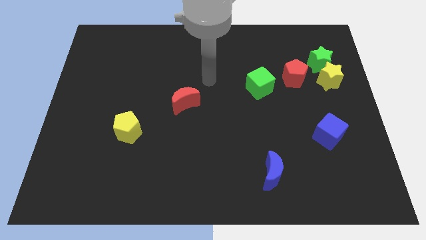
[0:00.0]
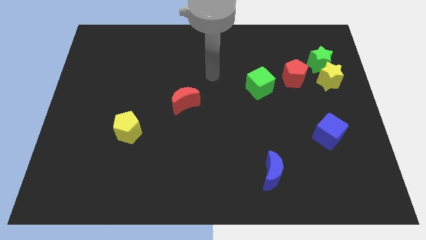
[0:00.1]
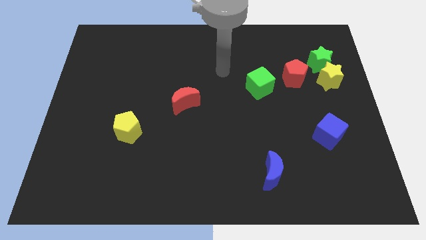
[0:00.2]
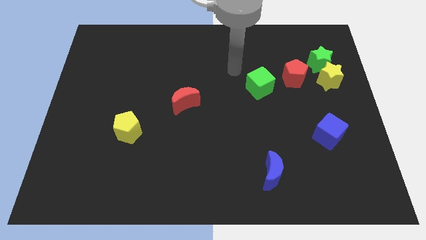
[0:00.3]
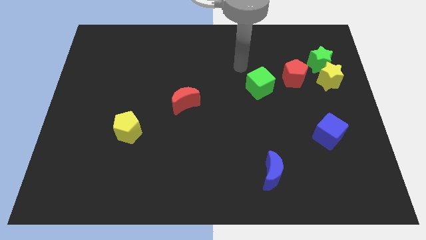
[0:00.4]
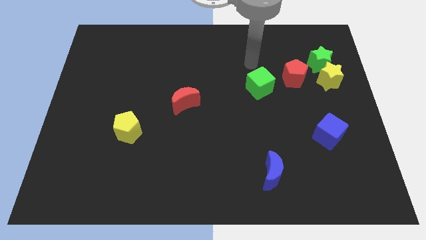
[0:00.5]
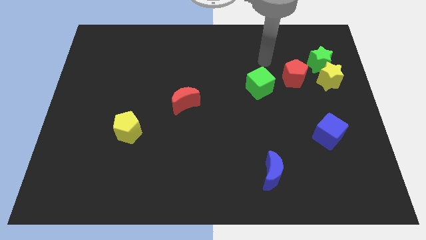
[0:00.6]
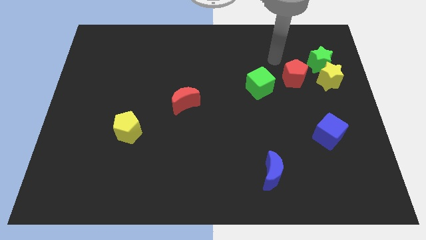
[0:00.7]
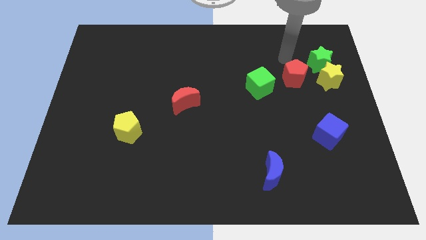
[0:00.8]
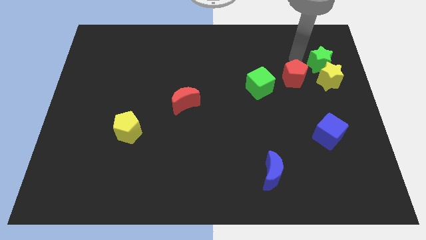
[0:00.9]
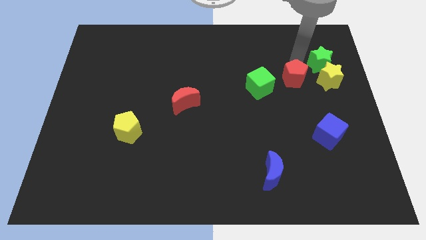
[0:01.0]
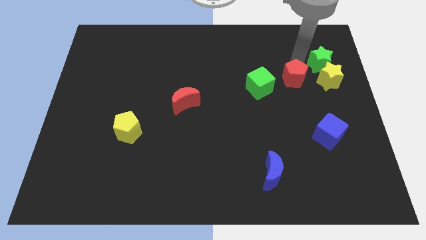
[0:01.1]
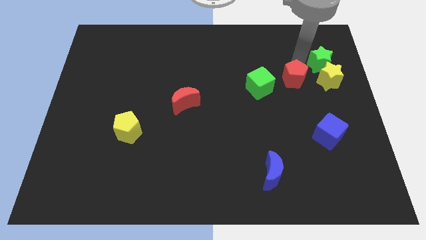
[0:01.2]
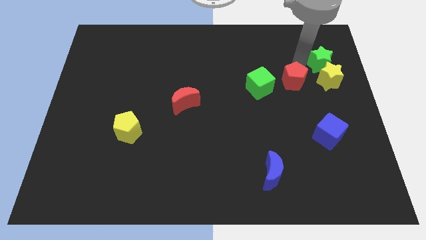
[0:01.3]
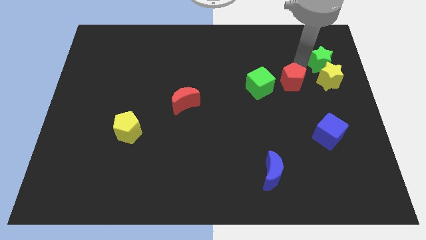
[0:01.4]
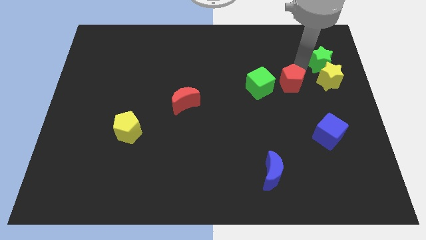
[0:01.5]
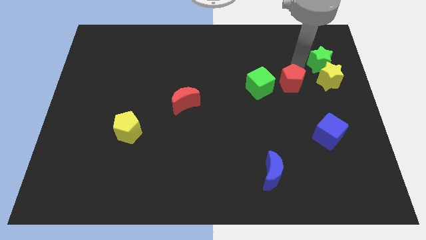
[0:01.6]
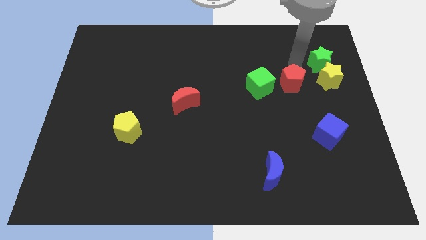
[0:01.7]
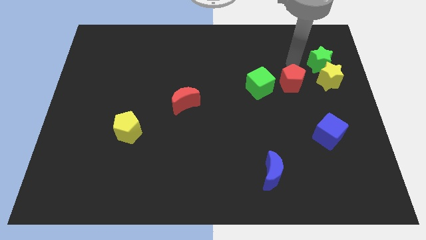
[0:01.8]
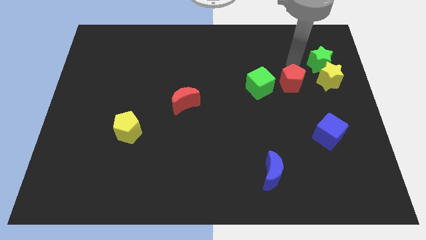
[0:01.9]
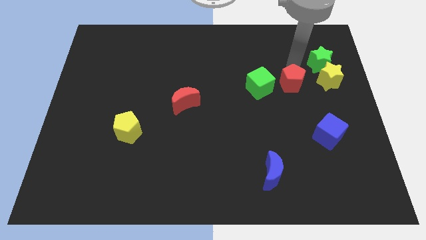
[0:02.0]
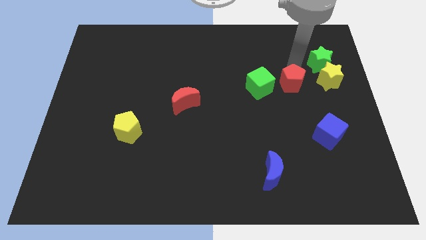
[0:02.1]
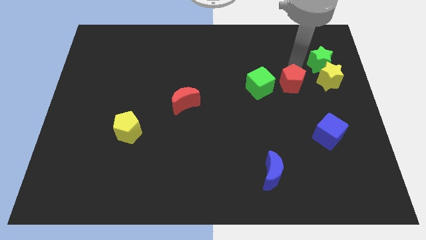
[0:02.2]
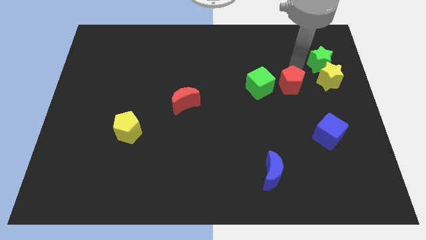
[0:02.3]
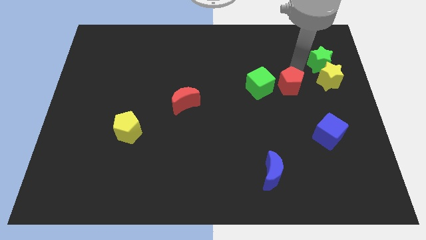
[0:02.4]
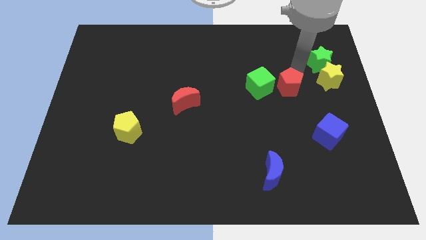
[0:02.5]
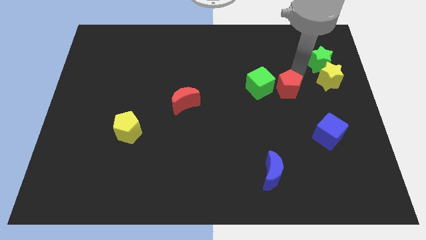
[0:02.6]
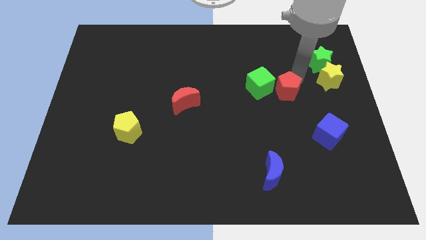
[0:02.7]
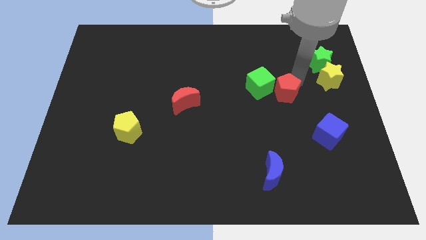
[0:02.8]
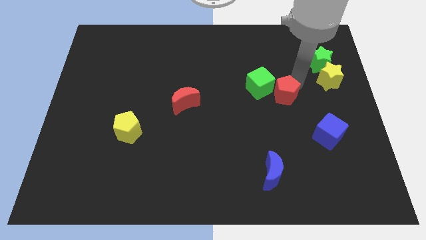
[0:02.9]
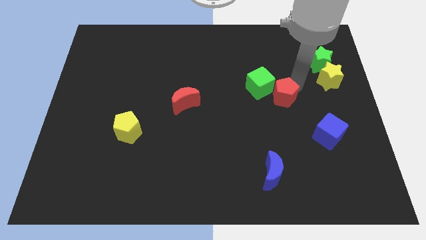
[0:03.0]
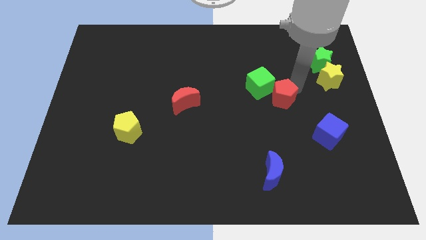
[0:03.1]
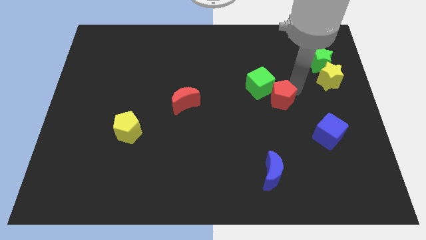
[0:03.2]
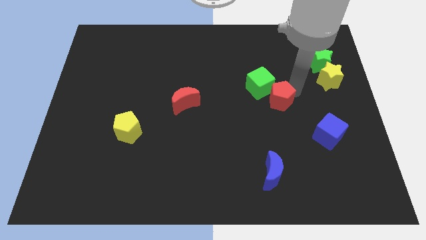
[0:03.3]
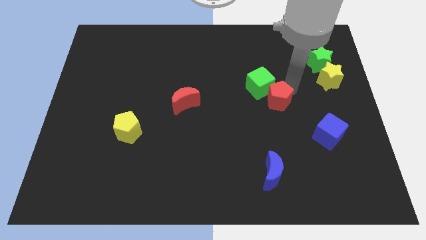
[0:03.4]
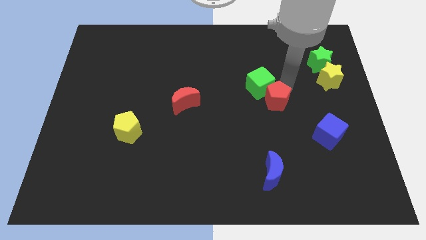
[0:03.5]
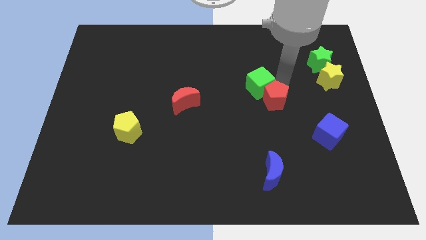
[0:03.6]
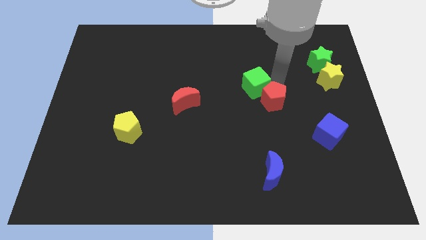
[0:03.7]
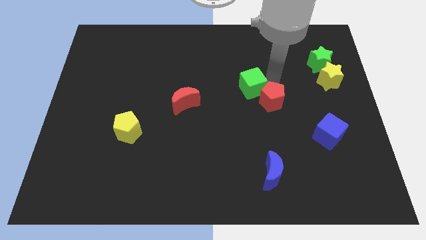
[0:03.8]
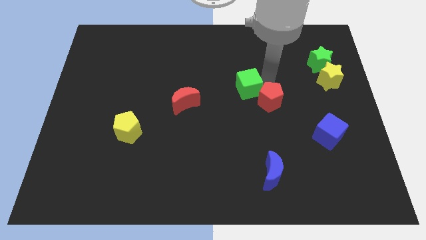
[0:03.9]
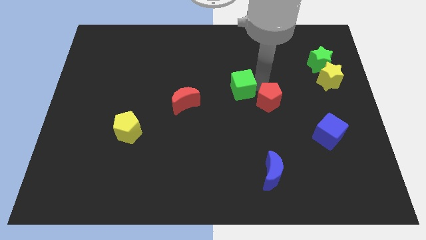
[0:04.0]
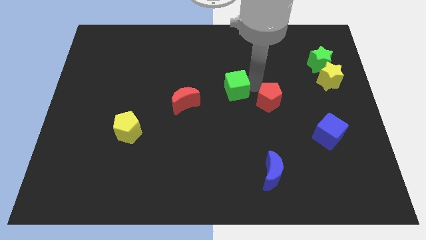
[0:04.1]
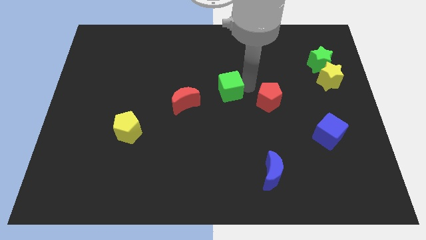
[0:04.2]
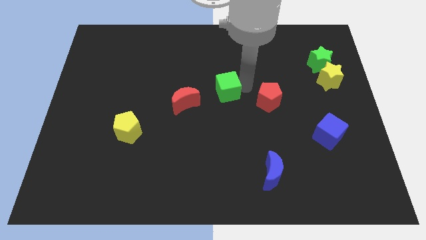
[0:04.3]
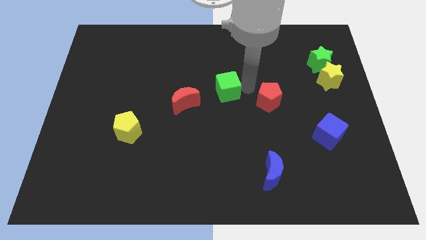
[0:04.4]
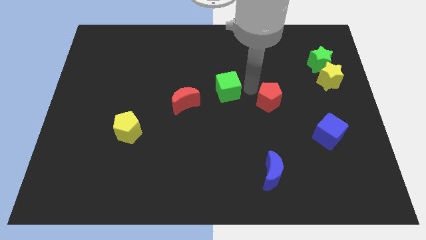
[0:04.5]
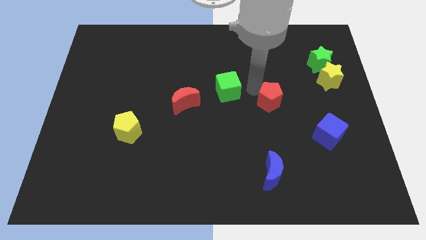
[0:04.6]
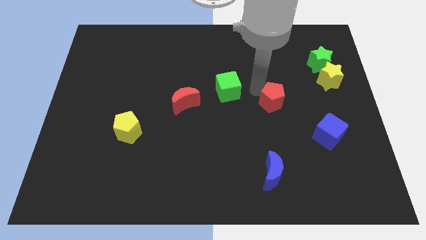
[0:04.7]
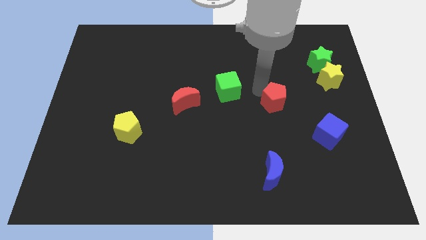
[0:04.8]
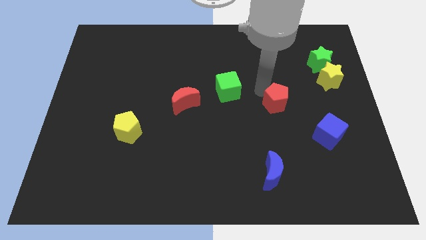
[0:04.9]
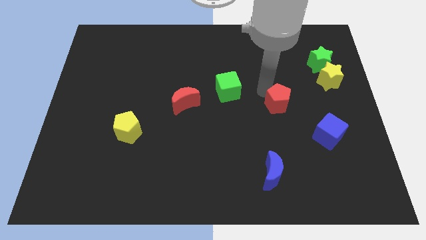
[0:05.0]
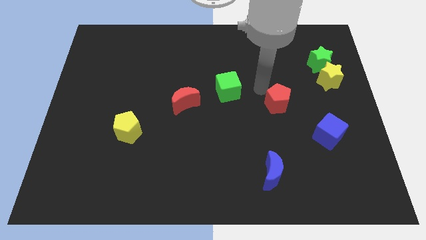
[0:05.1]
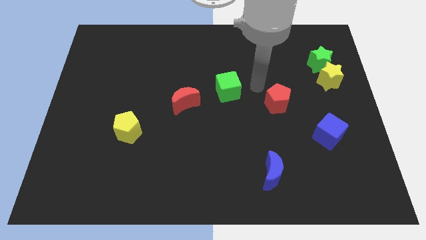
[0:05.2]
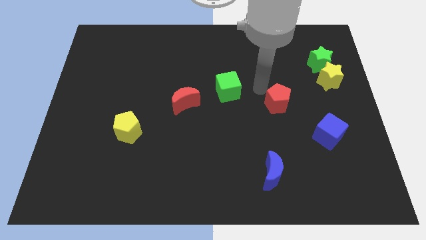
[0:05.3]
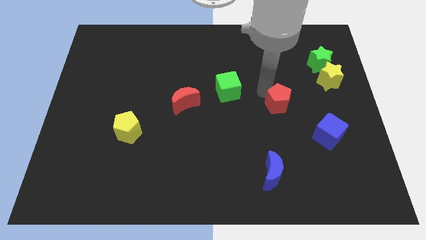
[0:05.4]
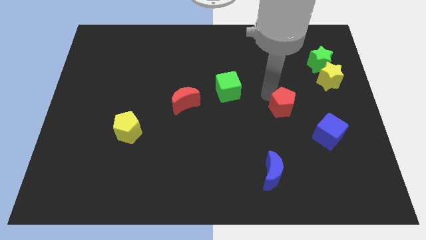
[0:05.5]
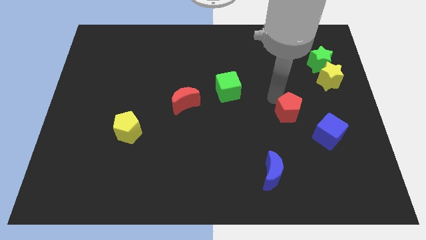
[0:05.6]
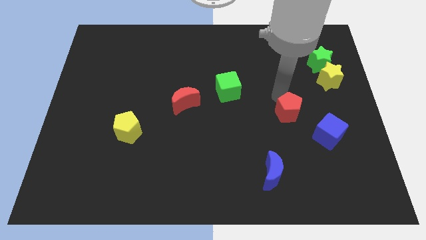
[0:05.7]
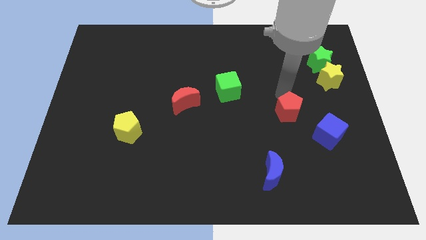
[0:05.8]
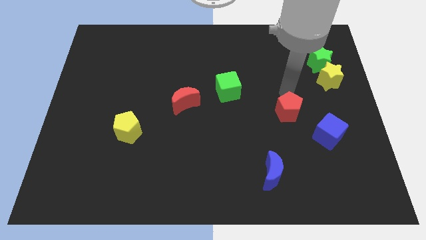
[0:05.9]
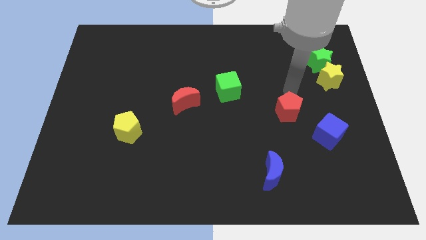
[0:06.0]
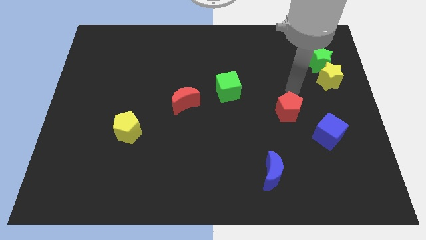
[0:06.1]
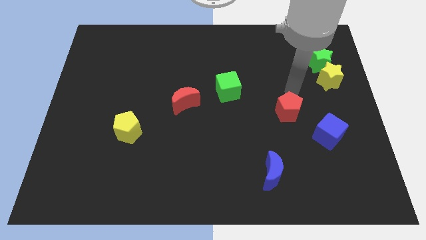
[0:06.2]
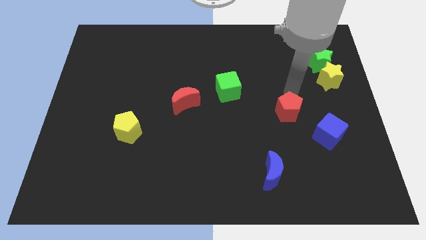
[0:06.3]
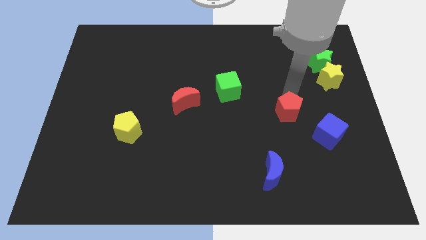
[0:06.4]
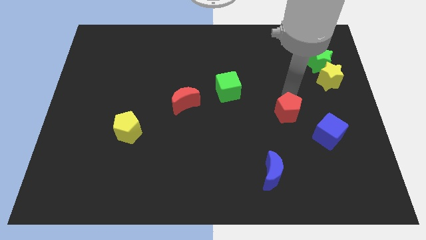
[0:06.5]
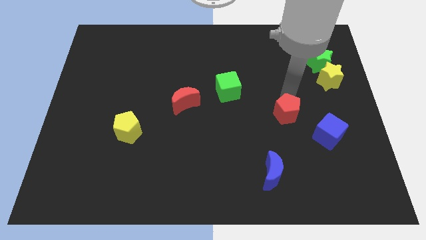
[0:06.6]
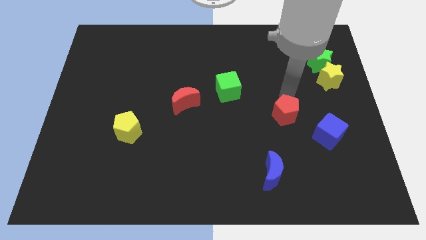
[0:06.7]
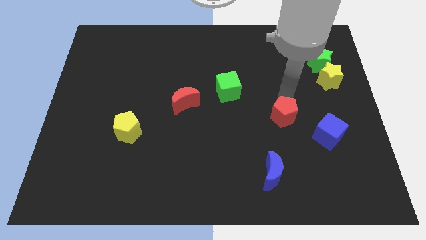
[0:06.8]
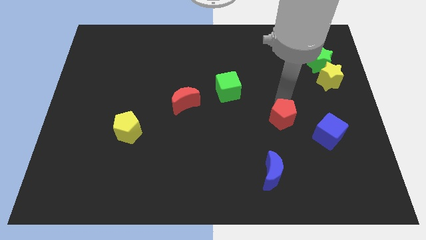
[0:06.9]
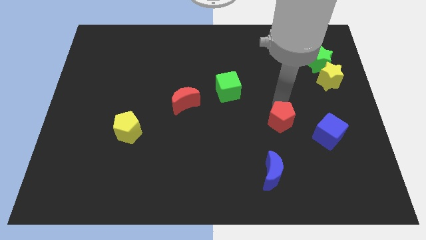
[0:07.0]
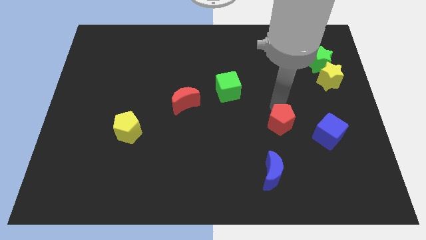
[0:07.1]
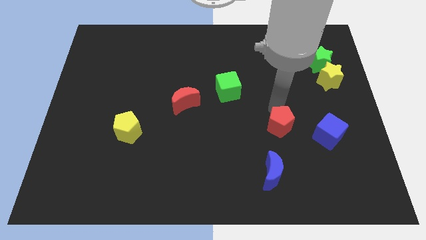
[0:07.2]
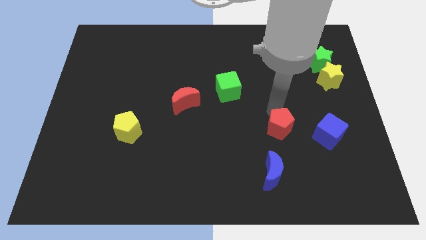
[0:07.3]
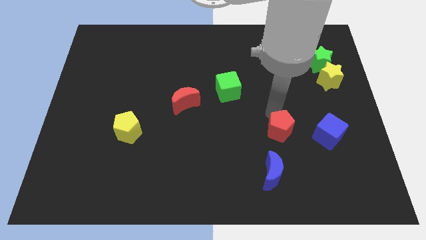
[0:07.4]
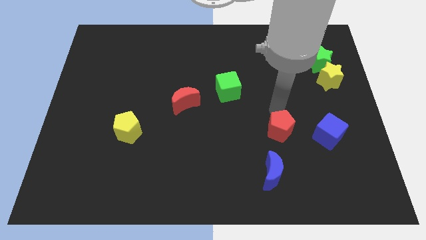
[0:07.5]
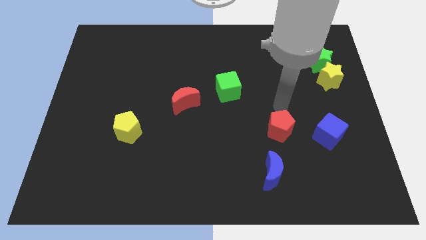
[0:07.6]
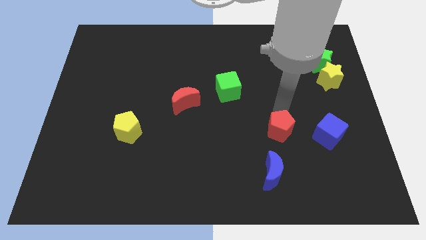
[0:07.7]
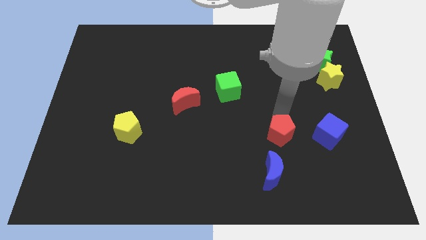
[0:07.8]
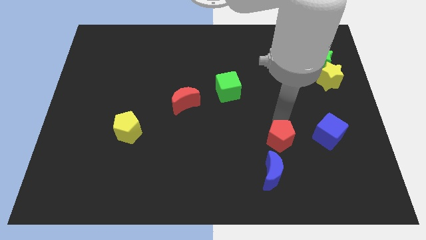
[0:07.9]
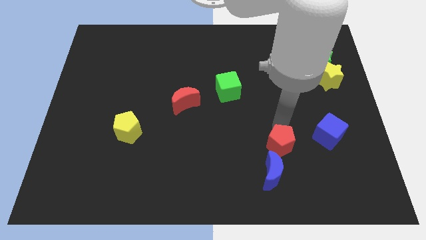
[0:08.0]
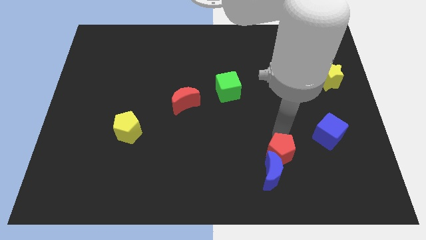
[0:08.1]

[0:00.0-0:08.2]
push the red pentagon close to the blue moon
